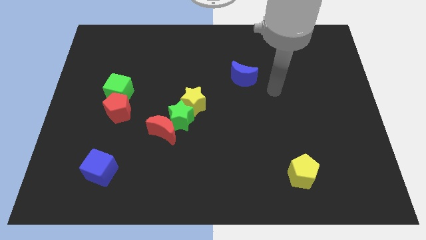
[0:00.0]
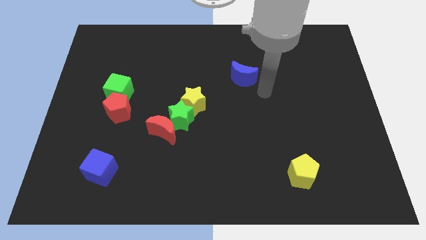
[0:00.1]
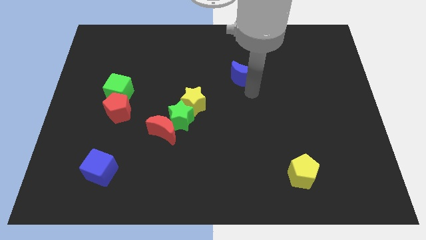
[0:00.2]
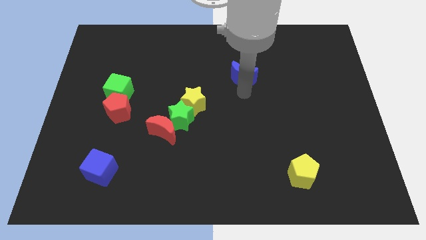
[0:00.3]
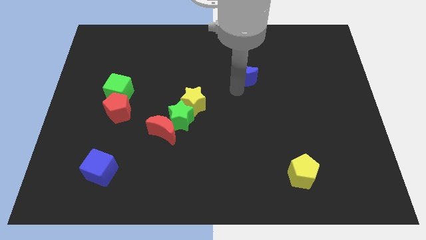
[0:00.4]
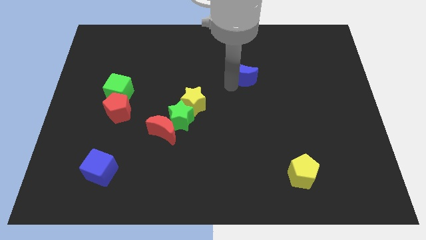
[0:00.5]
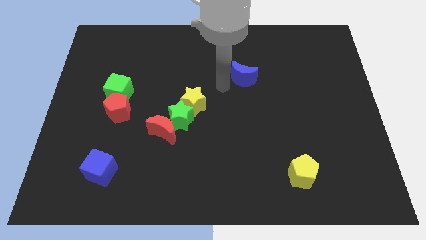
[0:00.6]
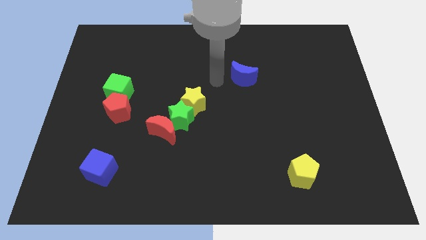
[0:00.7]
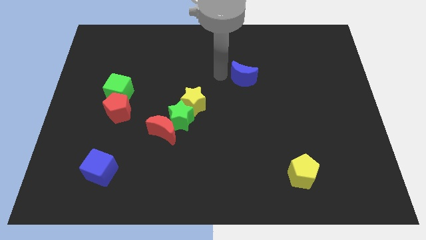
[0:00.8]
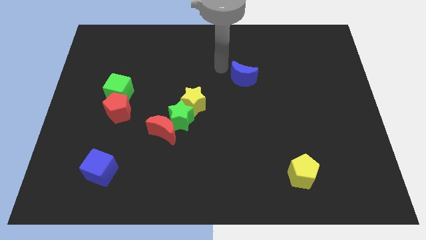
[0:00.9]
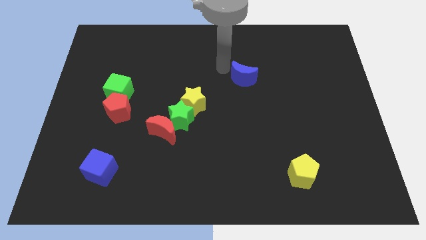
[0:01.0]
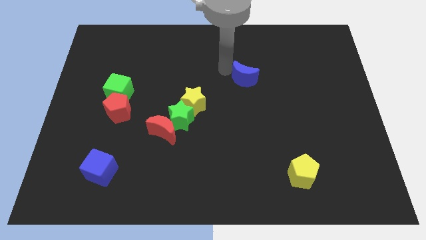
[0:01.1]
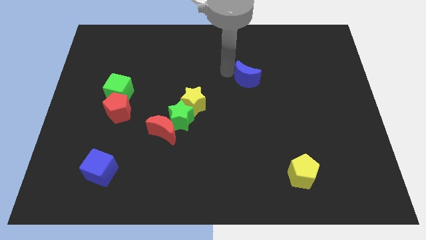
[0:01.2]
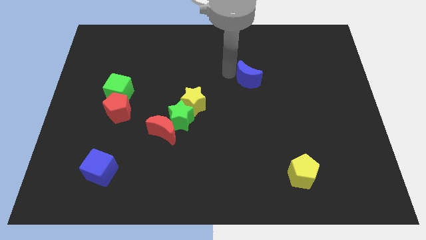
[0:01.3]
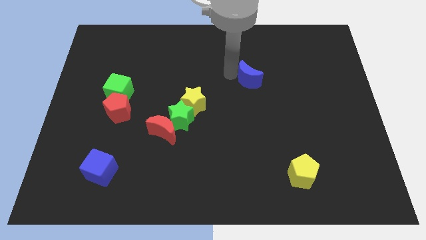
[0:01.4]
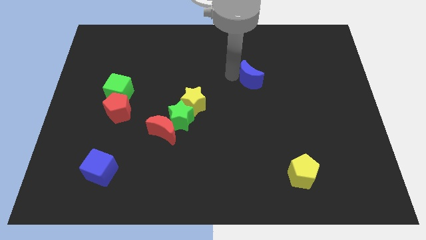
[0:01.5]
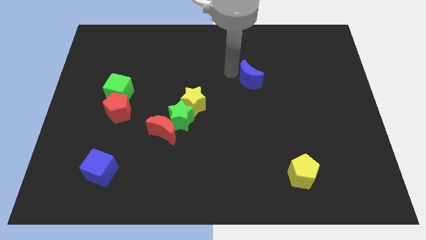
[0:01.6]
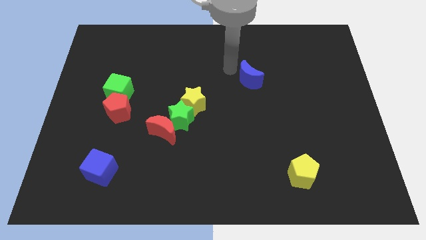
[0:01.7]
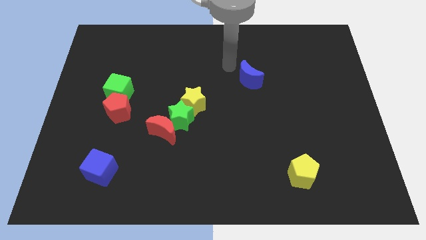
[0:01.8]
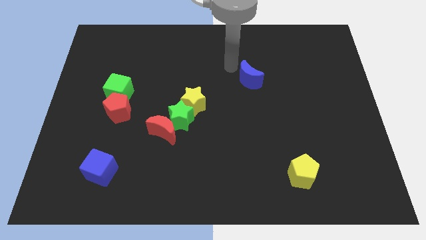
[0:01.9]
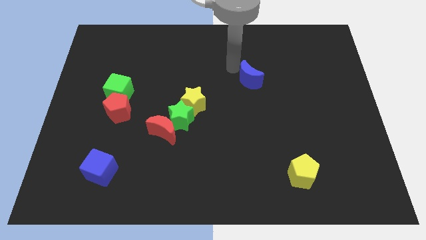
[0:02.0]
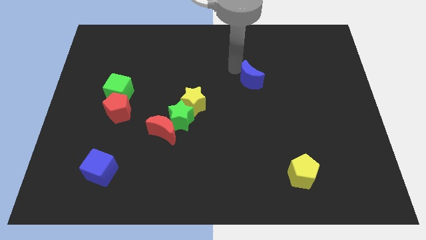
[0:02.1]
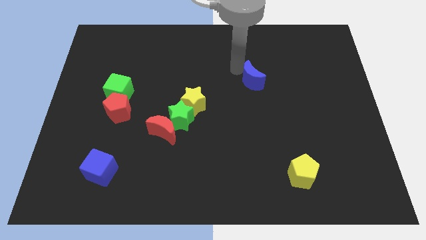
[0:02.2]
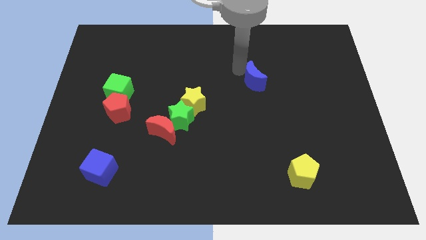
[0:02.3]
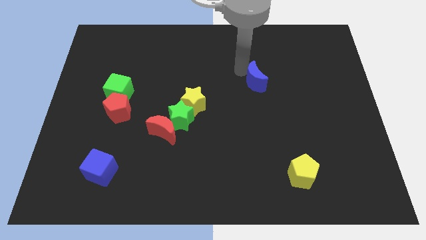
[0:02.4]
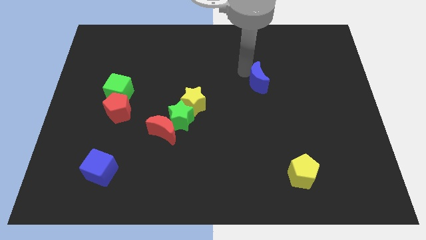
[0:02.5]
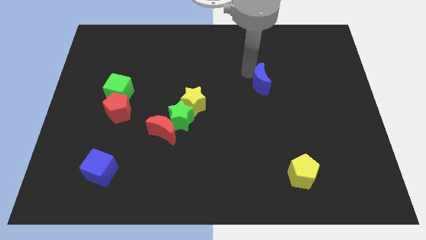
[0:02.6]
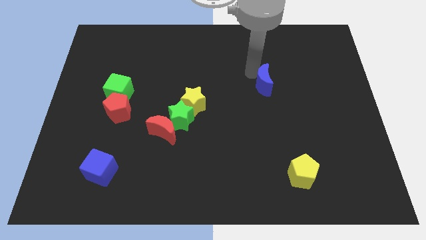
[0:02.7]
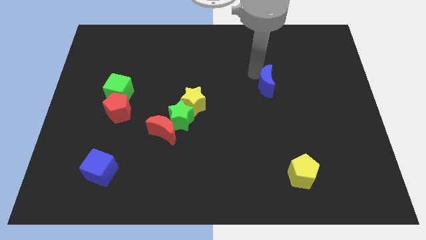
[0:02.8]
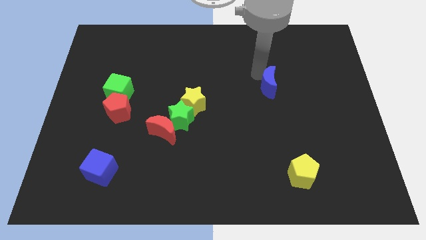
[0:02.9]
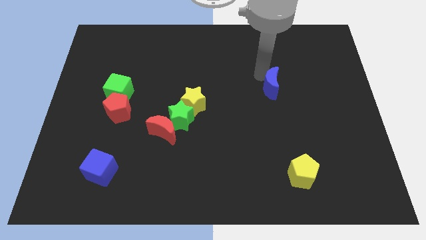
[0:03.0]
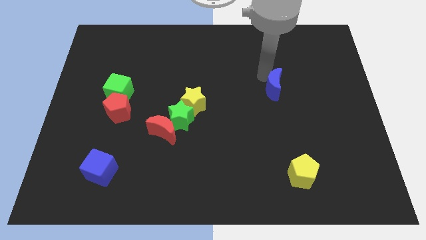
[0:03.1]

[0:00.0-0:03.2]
move the blue moon down and to the right a little

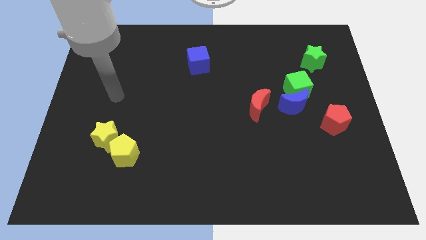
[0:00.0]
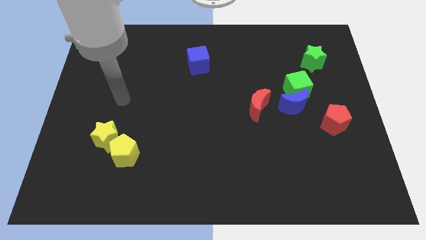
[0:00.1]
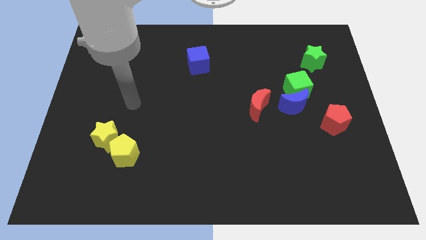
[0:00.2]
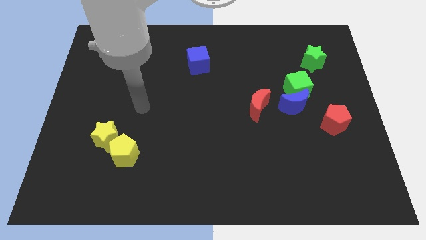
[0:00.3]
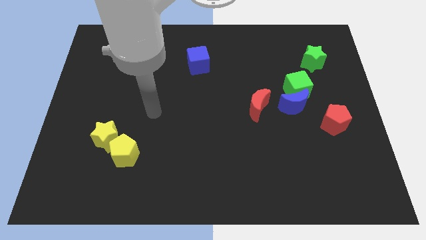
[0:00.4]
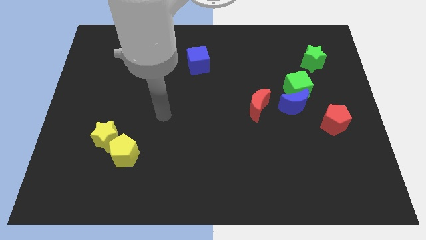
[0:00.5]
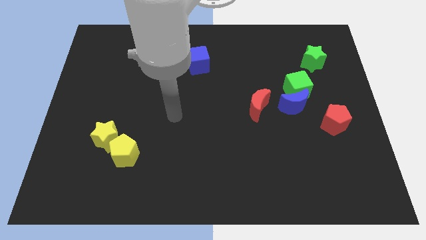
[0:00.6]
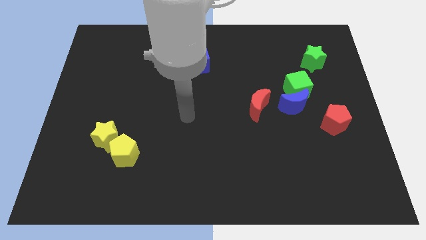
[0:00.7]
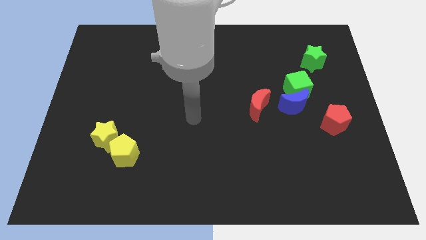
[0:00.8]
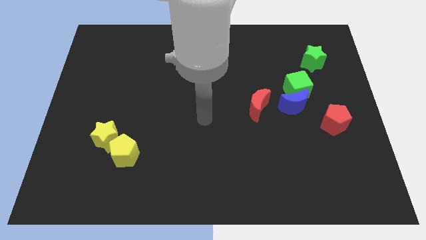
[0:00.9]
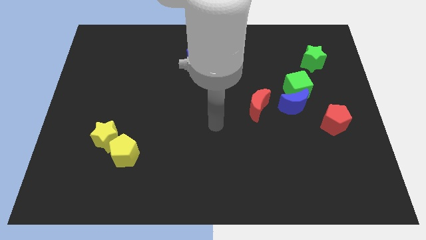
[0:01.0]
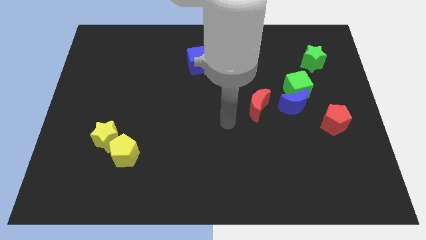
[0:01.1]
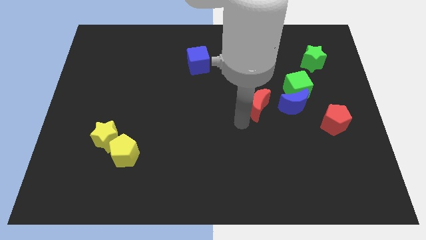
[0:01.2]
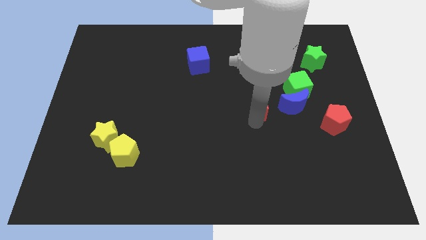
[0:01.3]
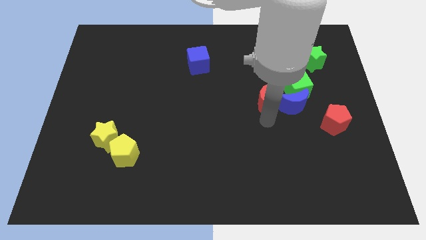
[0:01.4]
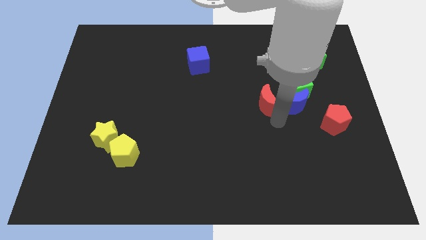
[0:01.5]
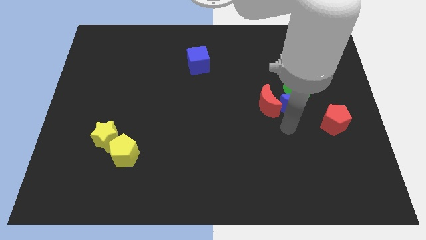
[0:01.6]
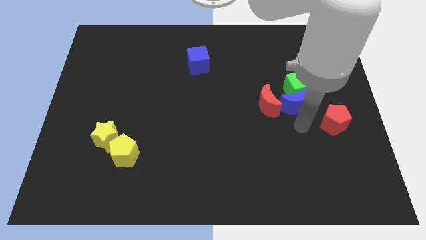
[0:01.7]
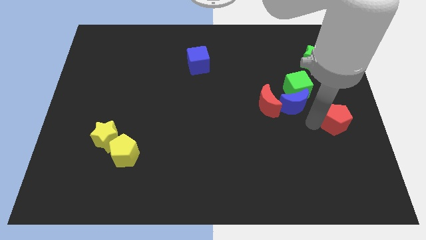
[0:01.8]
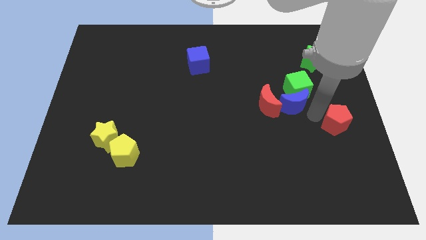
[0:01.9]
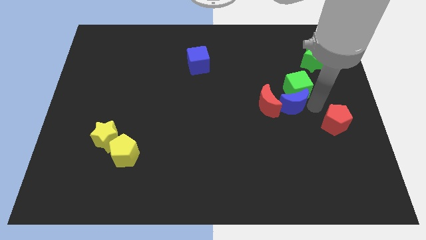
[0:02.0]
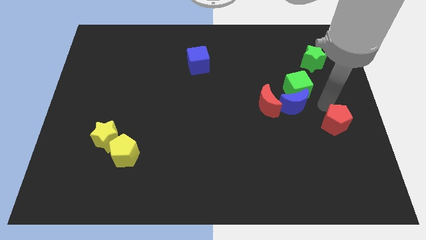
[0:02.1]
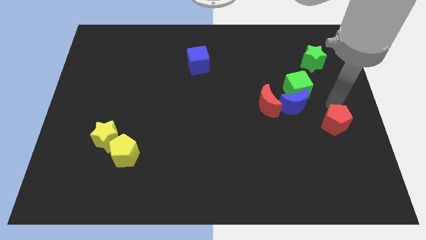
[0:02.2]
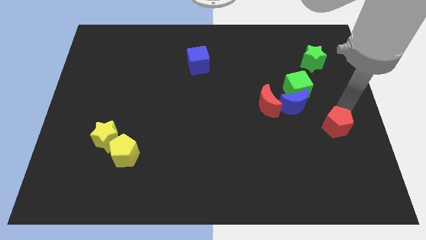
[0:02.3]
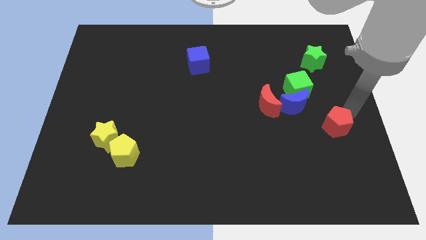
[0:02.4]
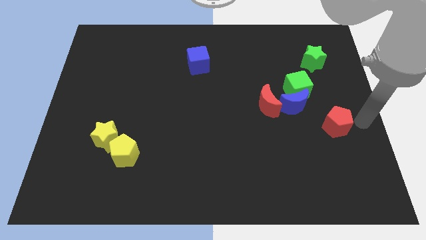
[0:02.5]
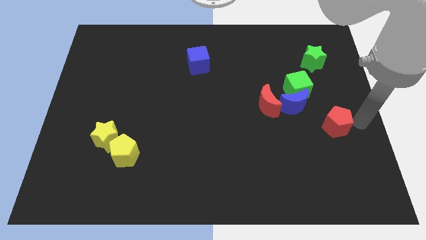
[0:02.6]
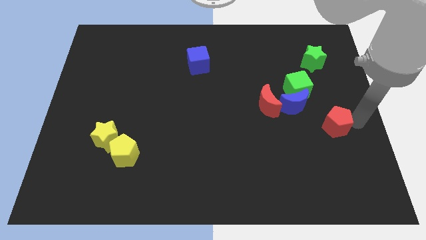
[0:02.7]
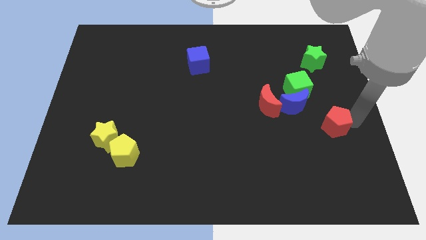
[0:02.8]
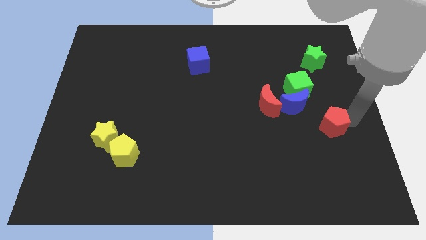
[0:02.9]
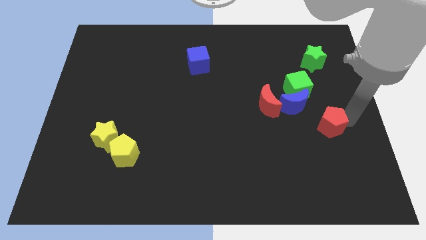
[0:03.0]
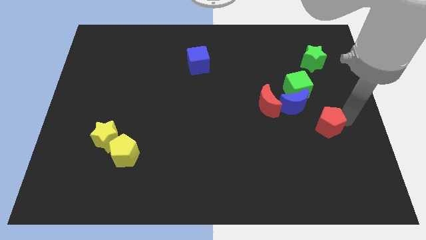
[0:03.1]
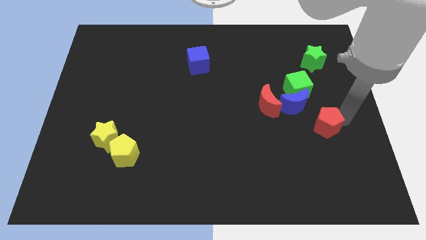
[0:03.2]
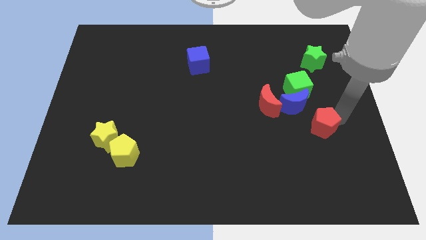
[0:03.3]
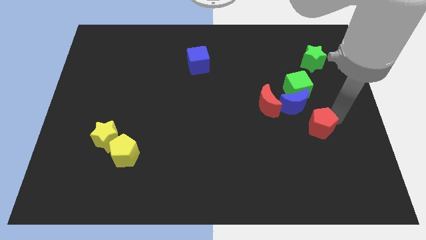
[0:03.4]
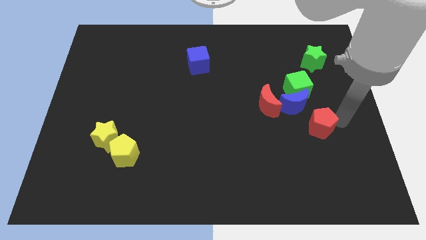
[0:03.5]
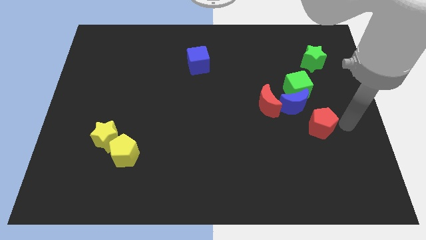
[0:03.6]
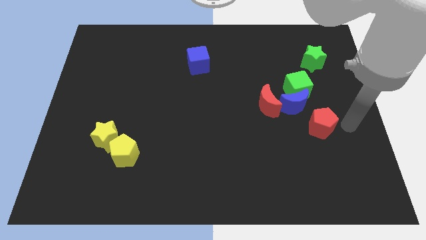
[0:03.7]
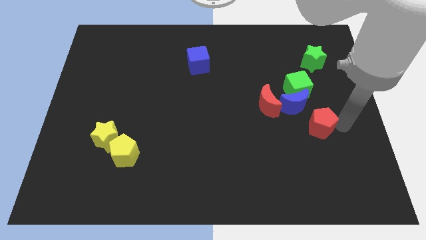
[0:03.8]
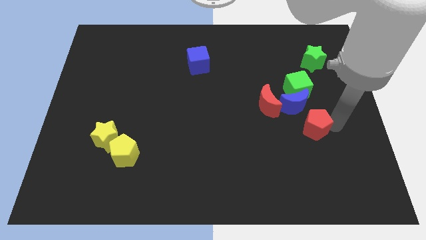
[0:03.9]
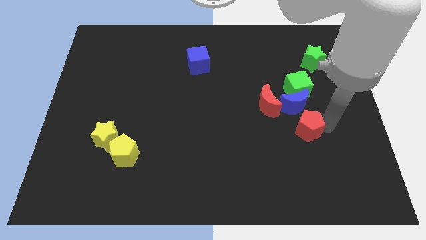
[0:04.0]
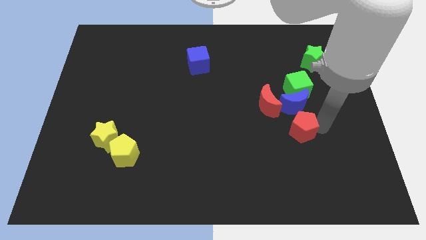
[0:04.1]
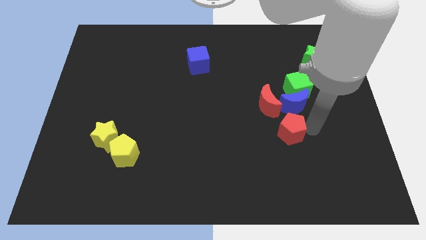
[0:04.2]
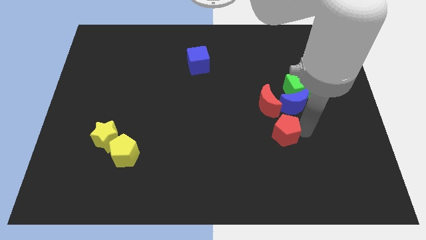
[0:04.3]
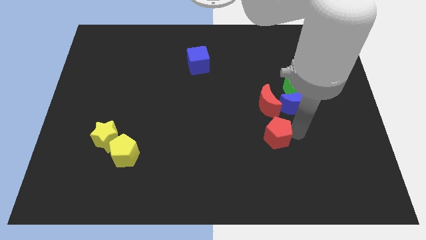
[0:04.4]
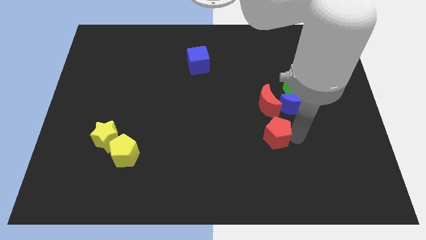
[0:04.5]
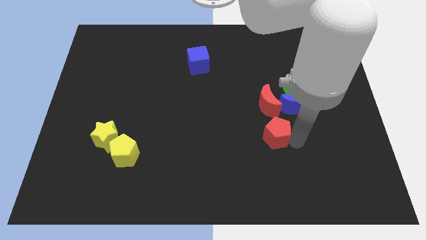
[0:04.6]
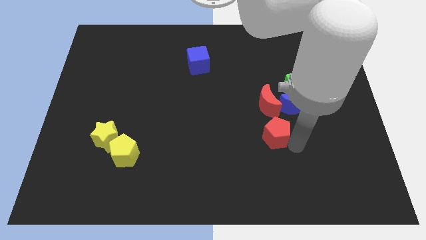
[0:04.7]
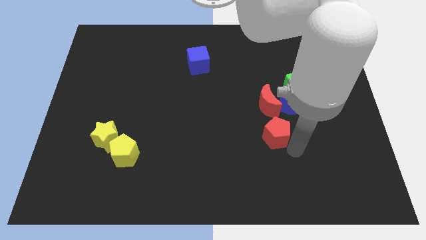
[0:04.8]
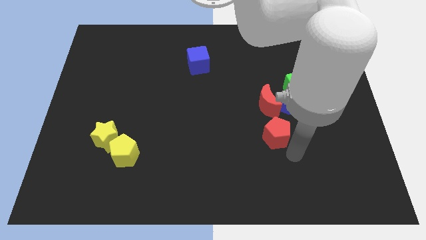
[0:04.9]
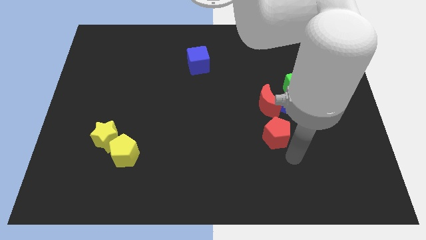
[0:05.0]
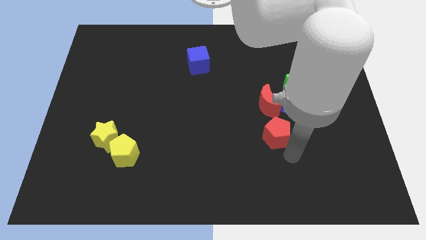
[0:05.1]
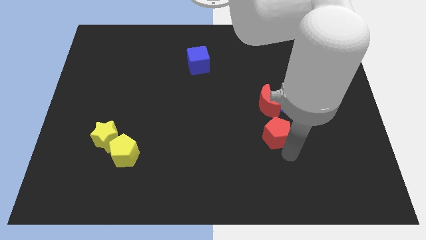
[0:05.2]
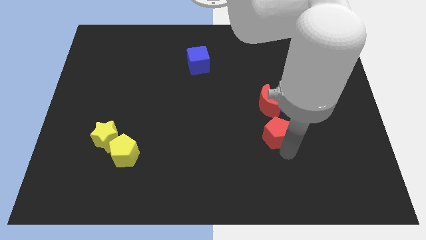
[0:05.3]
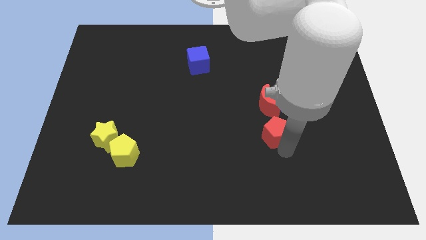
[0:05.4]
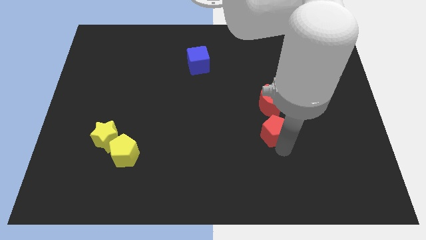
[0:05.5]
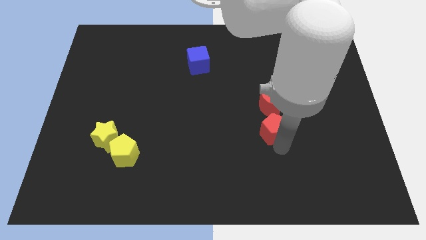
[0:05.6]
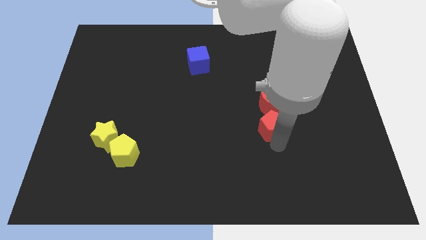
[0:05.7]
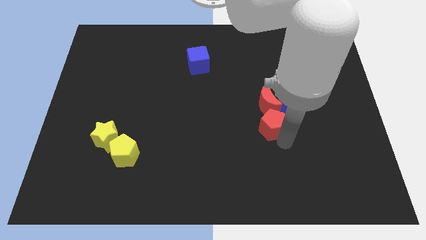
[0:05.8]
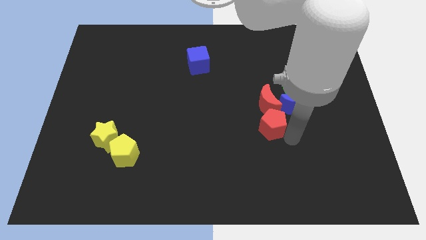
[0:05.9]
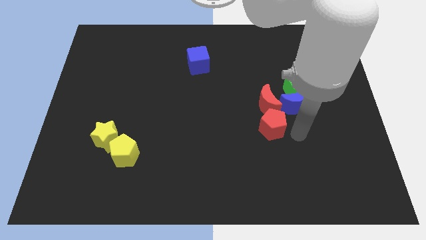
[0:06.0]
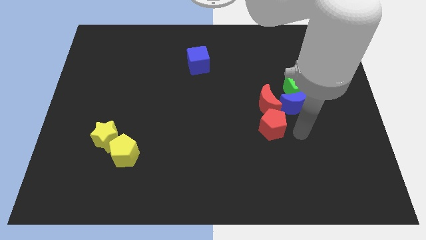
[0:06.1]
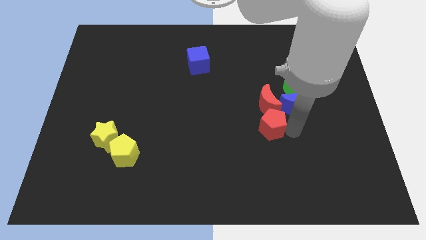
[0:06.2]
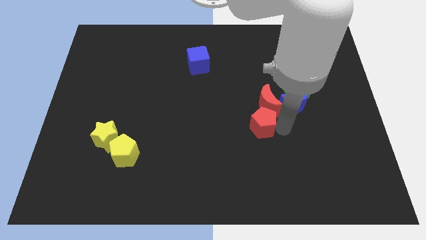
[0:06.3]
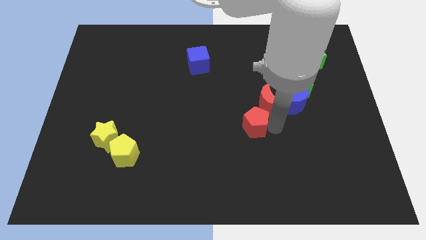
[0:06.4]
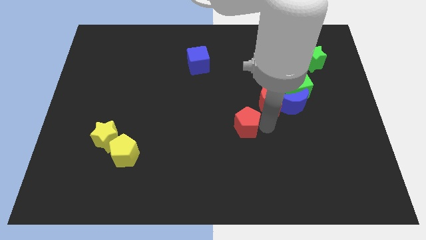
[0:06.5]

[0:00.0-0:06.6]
move the red pentagon to the left
